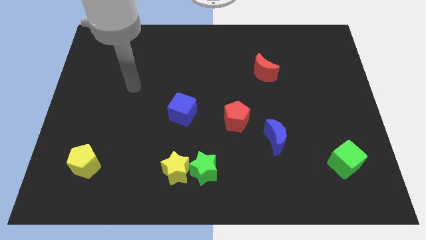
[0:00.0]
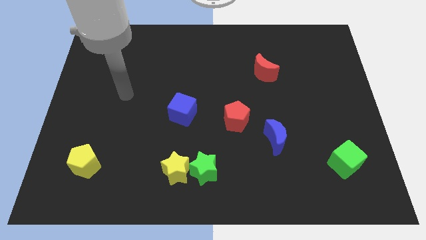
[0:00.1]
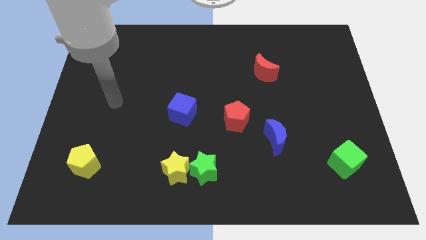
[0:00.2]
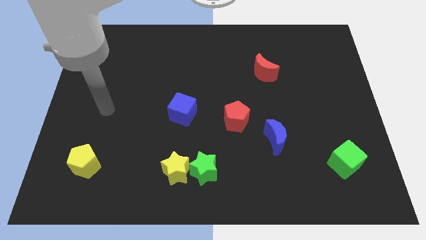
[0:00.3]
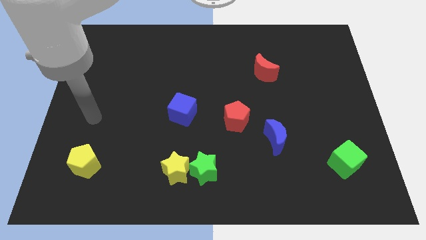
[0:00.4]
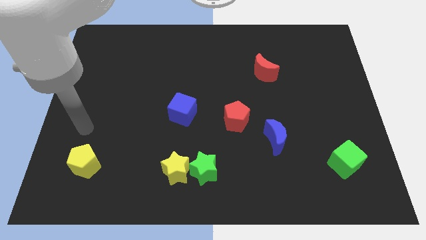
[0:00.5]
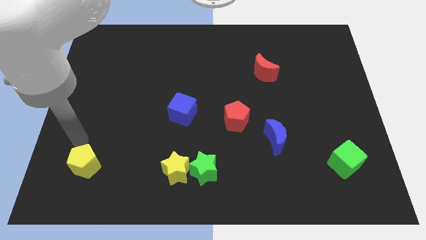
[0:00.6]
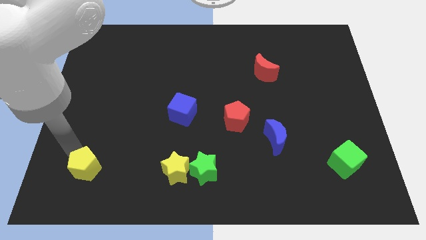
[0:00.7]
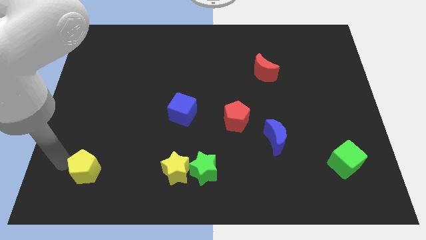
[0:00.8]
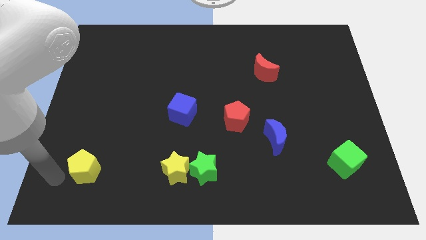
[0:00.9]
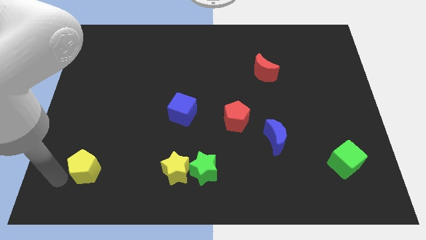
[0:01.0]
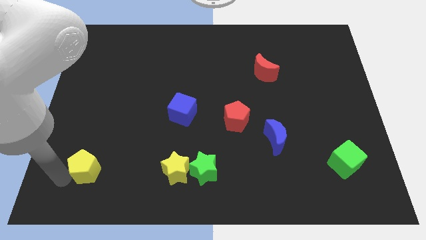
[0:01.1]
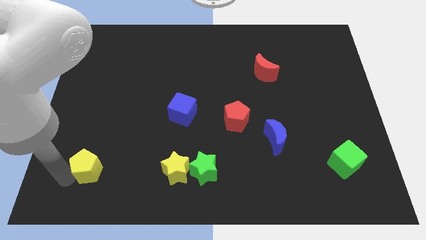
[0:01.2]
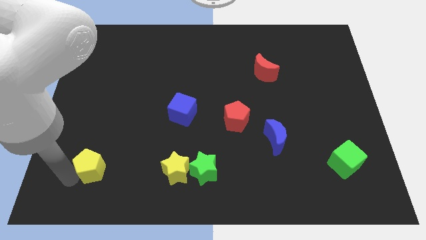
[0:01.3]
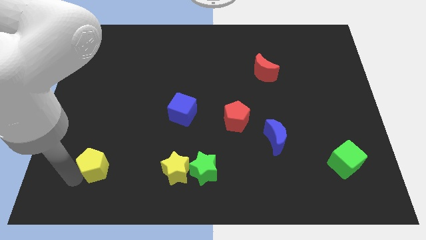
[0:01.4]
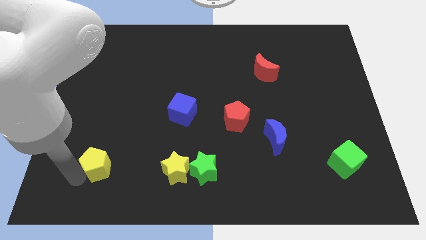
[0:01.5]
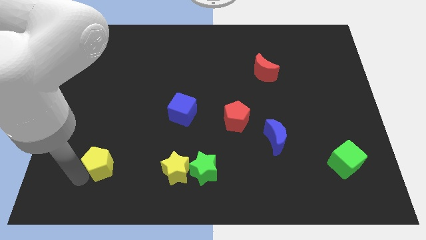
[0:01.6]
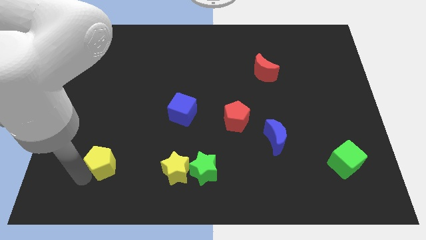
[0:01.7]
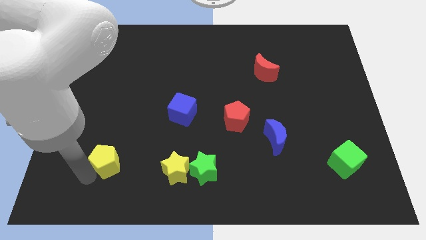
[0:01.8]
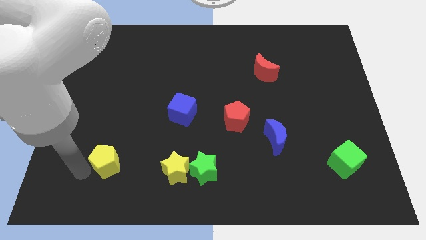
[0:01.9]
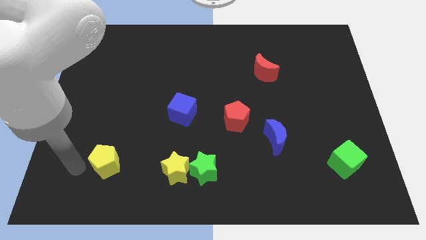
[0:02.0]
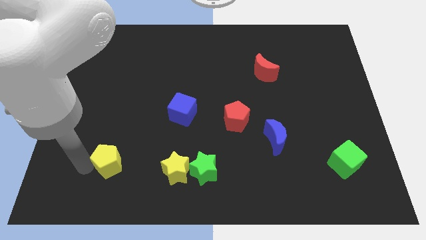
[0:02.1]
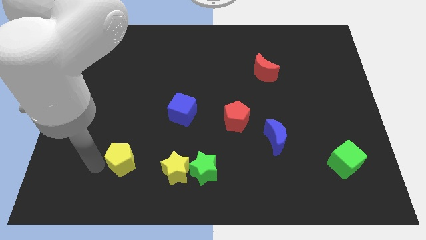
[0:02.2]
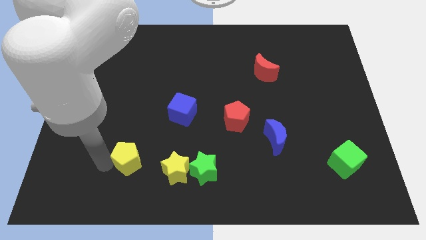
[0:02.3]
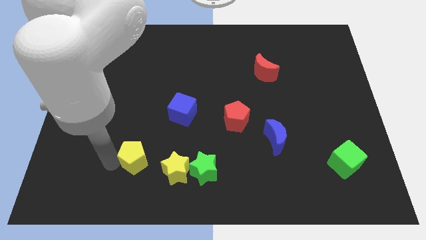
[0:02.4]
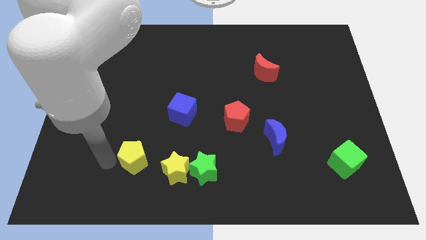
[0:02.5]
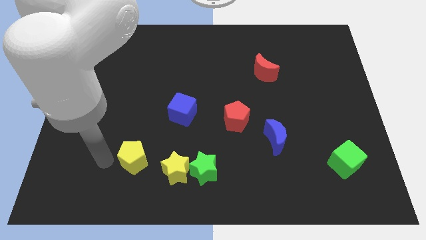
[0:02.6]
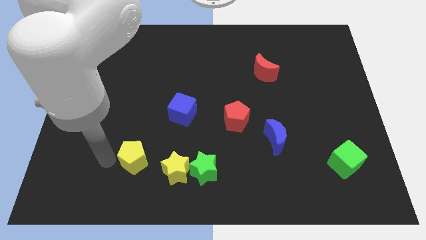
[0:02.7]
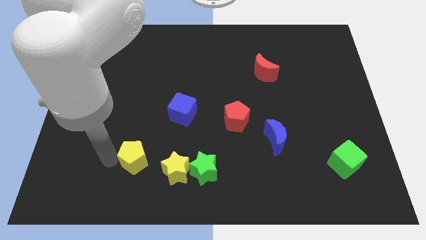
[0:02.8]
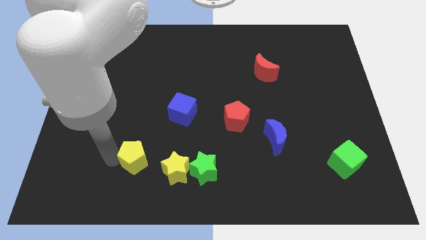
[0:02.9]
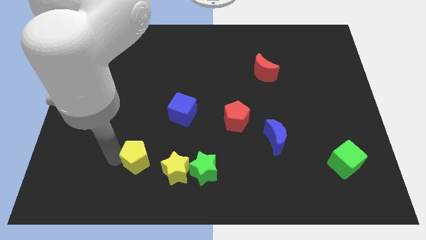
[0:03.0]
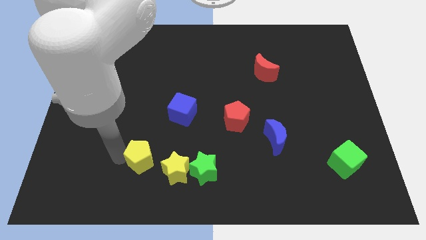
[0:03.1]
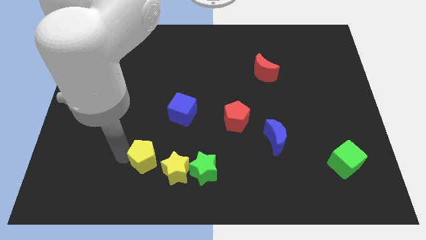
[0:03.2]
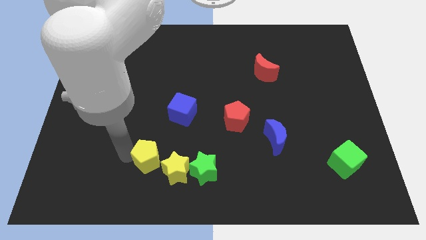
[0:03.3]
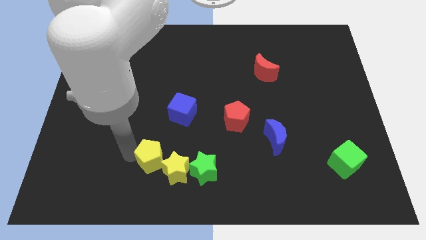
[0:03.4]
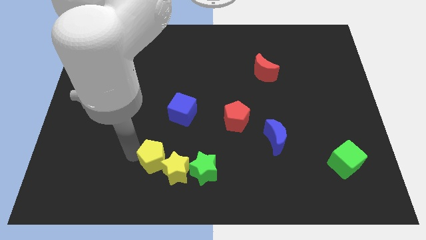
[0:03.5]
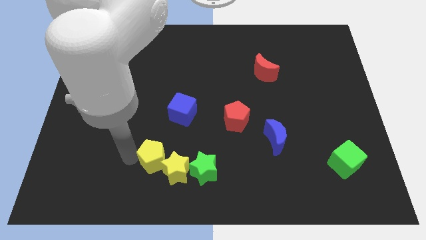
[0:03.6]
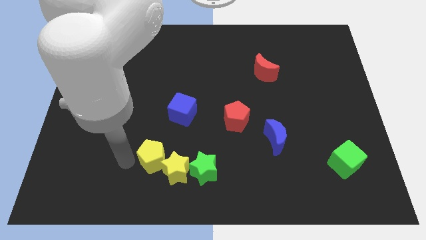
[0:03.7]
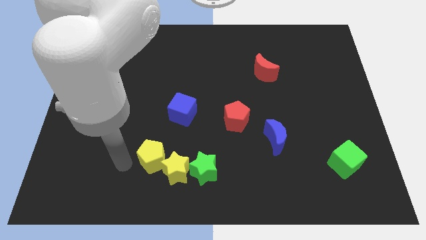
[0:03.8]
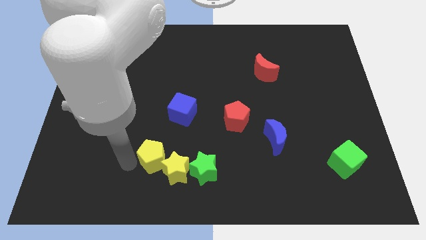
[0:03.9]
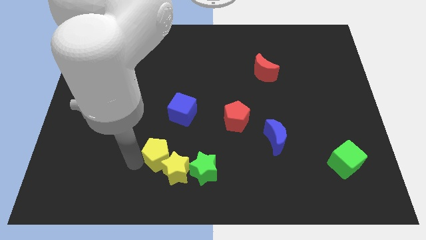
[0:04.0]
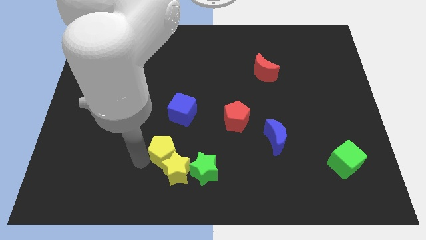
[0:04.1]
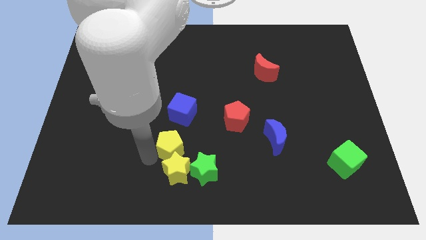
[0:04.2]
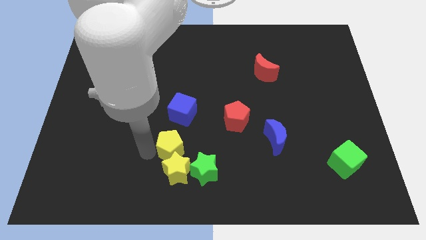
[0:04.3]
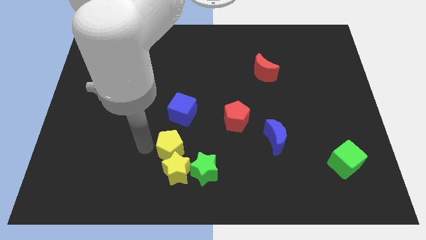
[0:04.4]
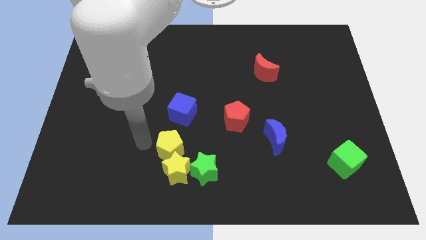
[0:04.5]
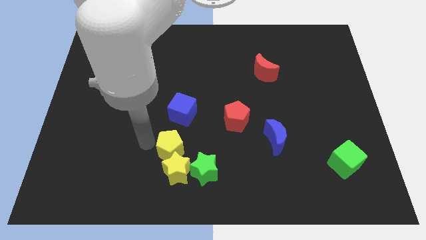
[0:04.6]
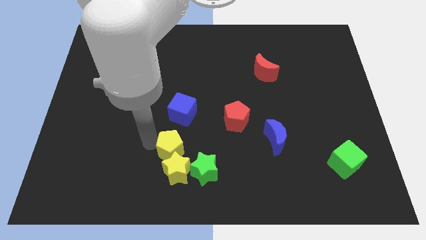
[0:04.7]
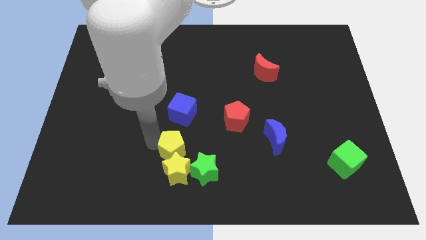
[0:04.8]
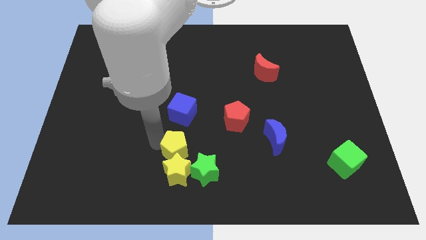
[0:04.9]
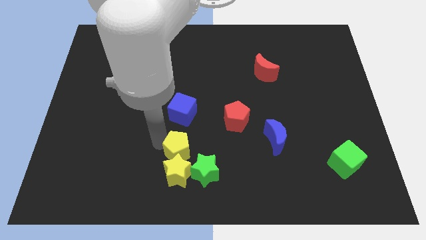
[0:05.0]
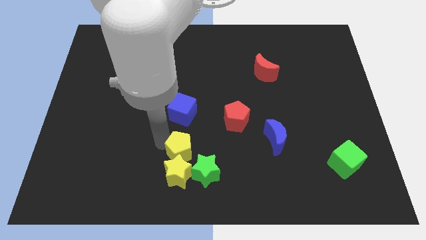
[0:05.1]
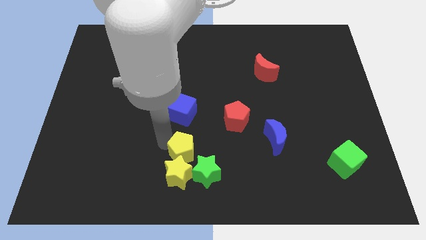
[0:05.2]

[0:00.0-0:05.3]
push the yellow pentagon right

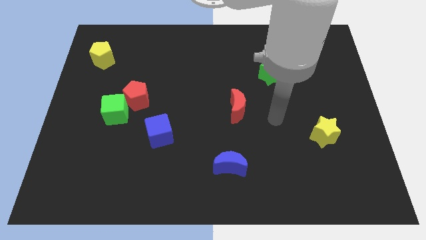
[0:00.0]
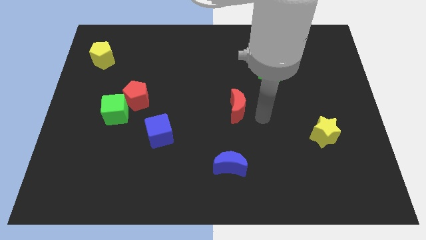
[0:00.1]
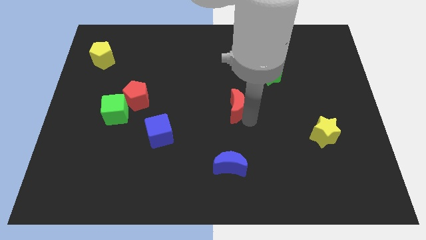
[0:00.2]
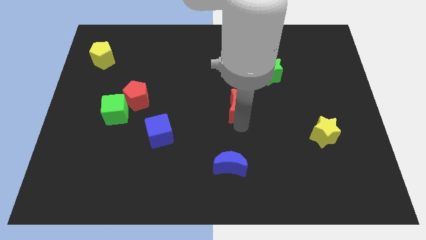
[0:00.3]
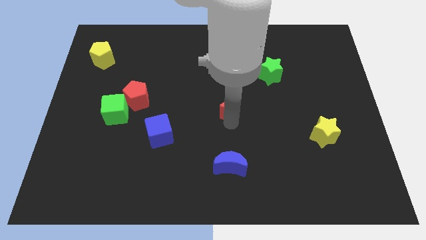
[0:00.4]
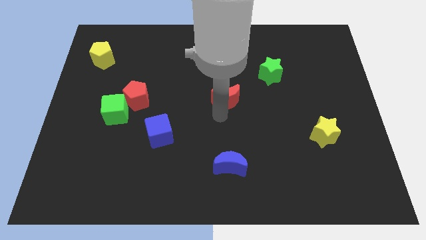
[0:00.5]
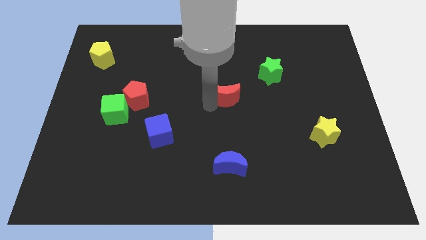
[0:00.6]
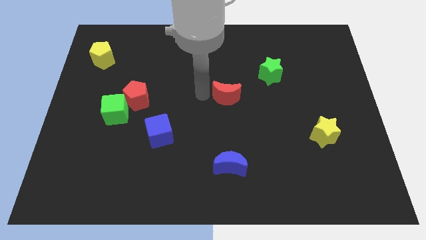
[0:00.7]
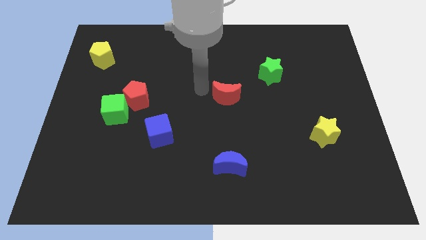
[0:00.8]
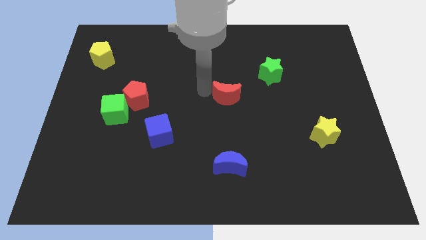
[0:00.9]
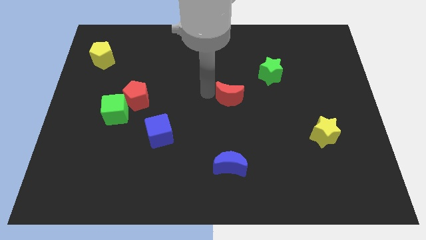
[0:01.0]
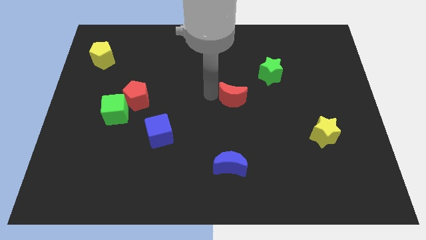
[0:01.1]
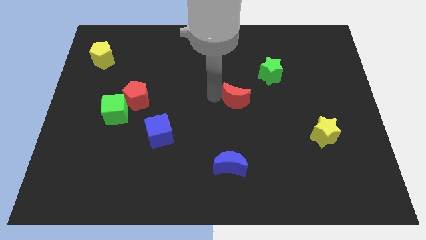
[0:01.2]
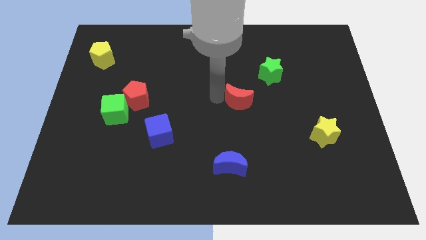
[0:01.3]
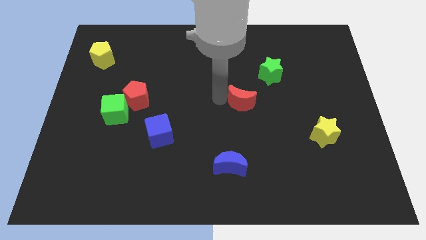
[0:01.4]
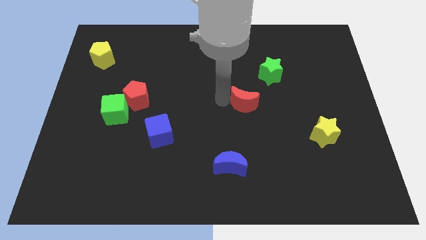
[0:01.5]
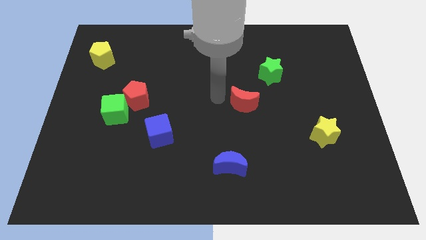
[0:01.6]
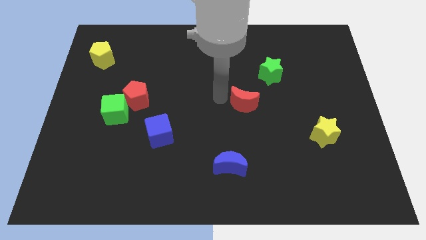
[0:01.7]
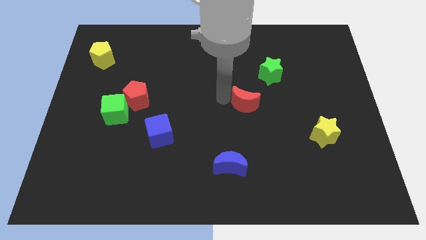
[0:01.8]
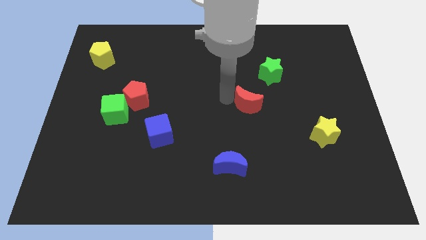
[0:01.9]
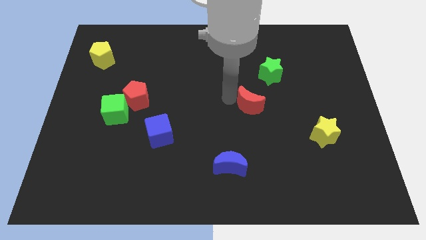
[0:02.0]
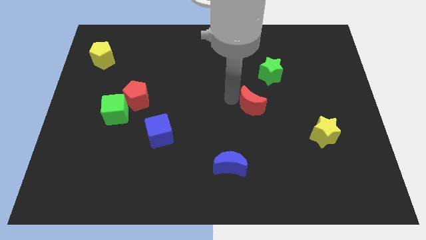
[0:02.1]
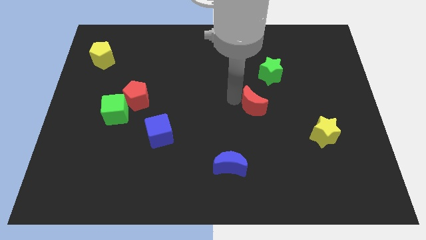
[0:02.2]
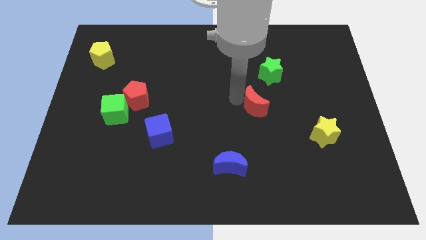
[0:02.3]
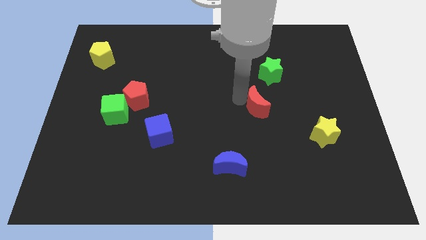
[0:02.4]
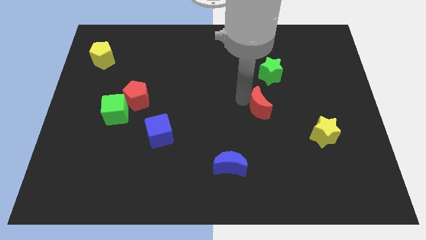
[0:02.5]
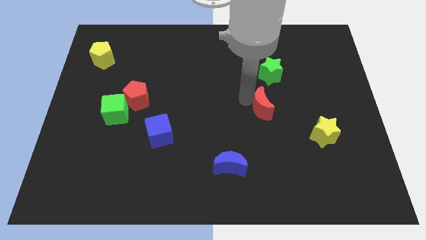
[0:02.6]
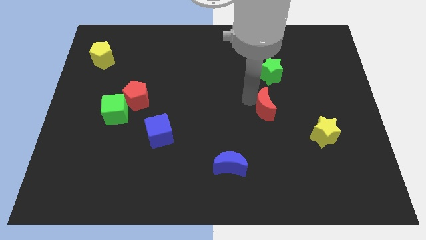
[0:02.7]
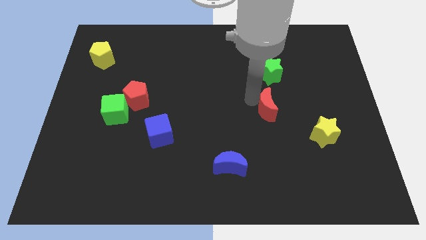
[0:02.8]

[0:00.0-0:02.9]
slightly slide the red moon right

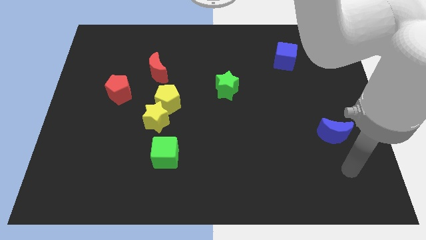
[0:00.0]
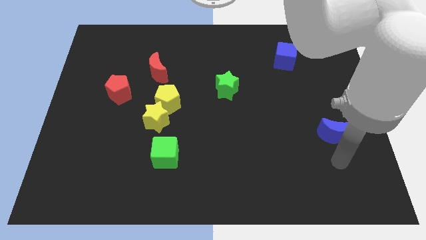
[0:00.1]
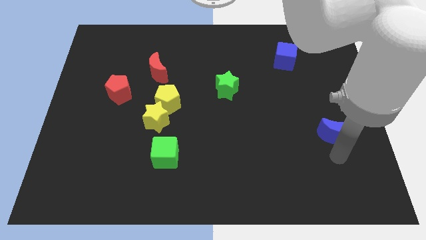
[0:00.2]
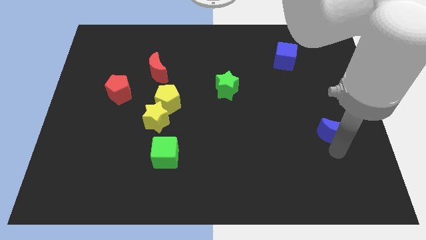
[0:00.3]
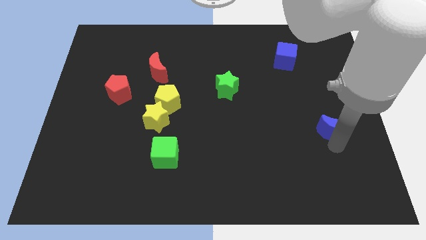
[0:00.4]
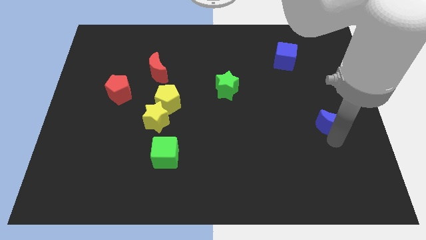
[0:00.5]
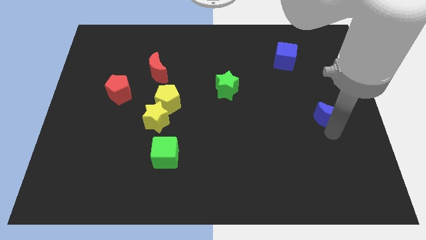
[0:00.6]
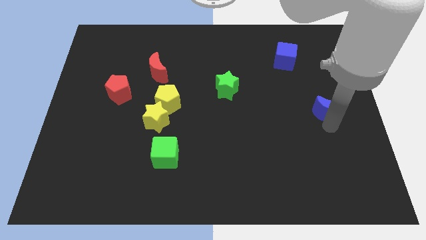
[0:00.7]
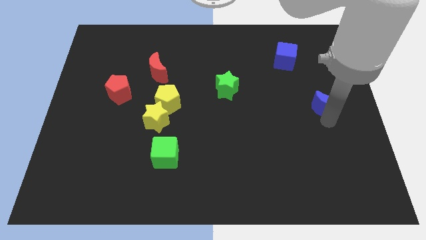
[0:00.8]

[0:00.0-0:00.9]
slightly move the blue moon up
